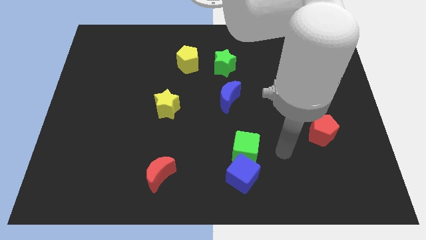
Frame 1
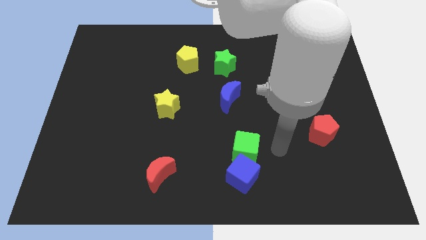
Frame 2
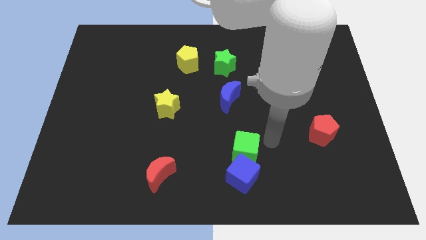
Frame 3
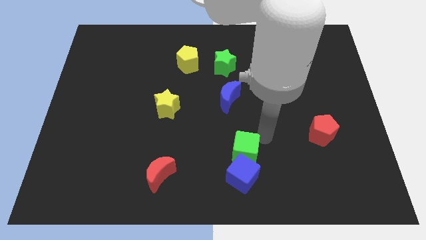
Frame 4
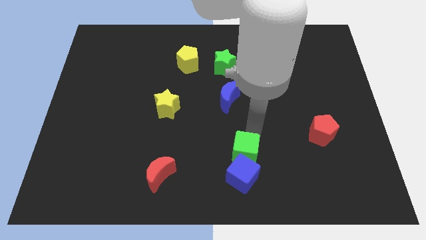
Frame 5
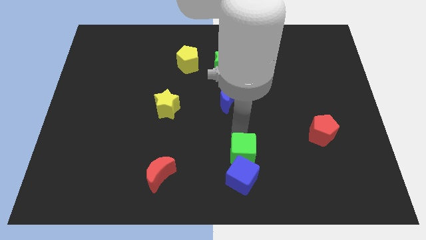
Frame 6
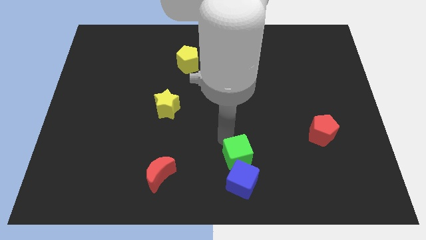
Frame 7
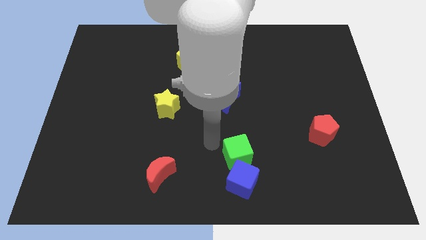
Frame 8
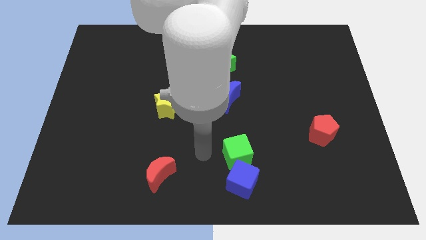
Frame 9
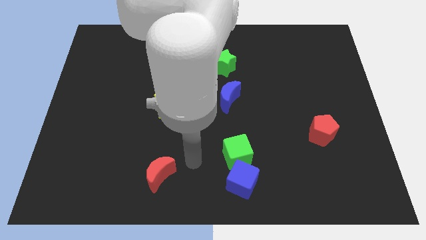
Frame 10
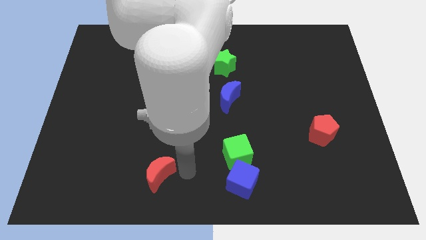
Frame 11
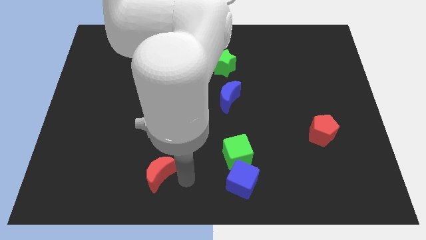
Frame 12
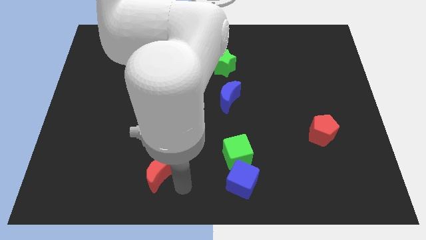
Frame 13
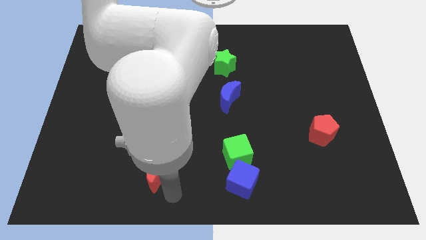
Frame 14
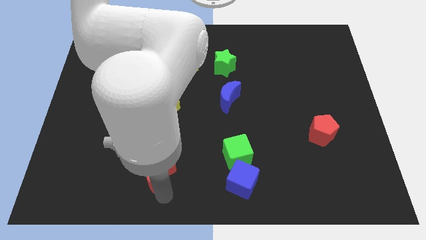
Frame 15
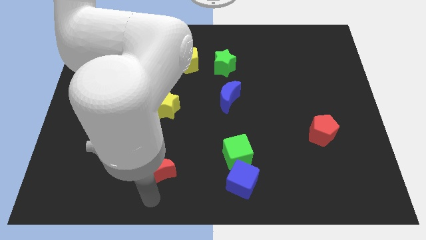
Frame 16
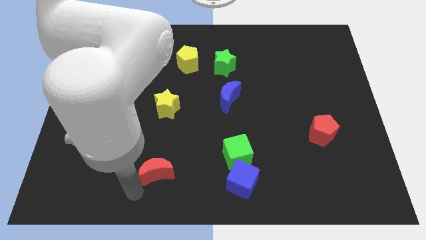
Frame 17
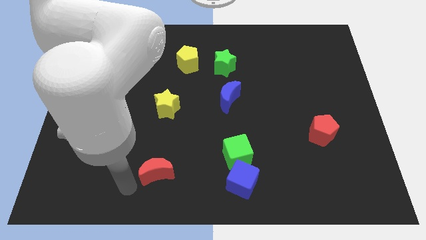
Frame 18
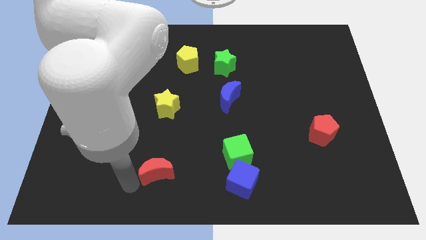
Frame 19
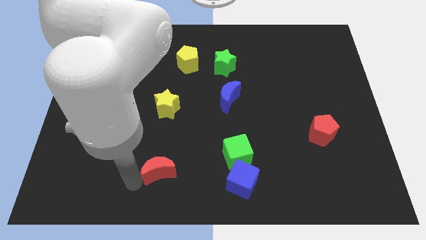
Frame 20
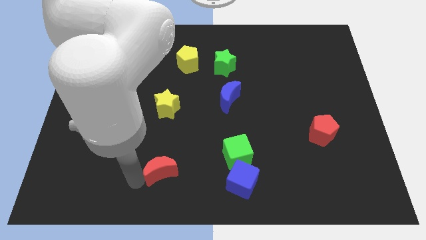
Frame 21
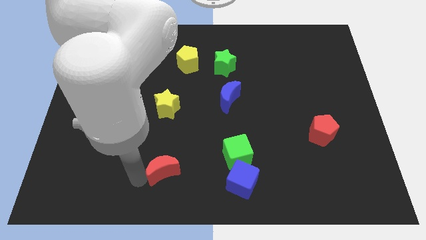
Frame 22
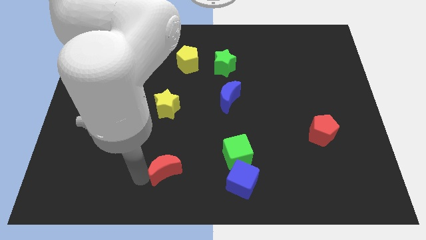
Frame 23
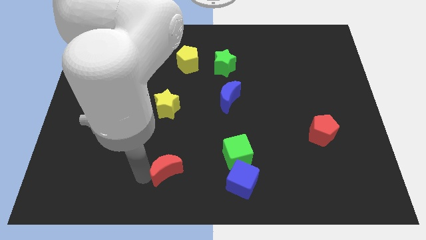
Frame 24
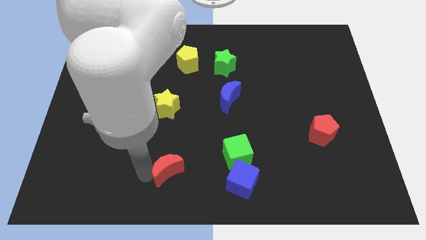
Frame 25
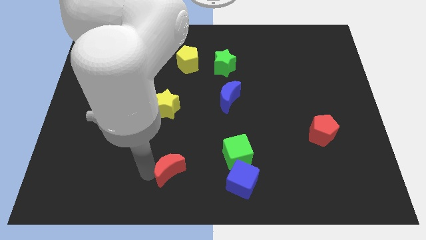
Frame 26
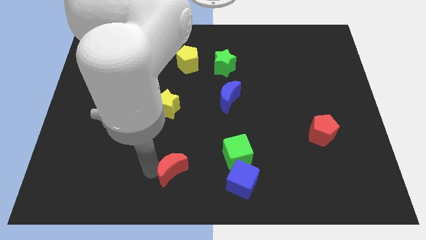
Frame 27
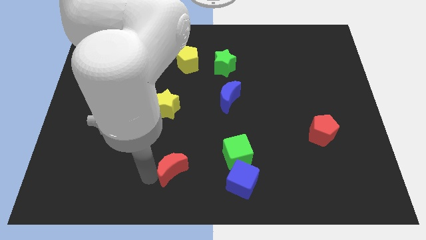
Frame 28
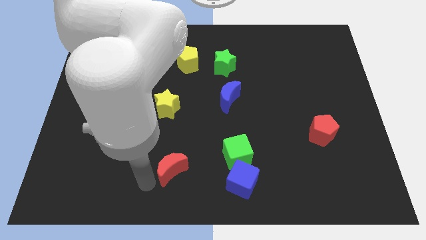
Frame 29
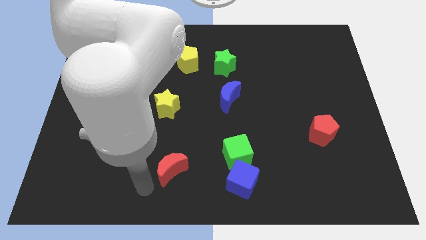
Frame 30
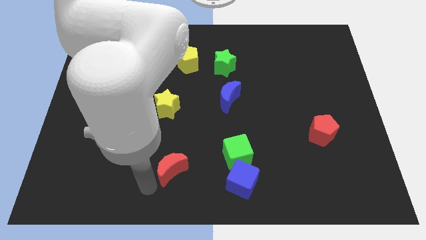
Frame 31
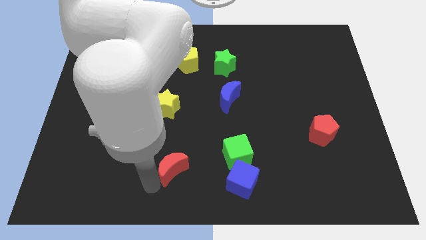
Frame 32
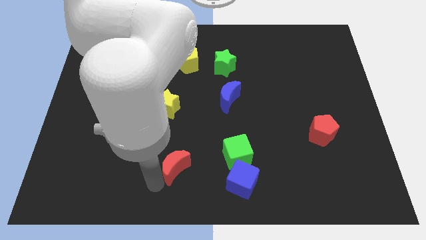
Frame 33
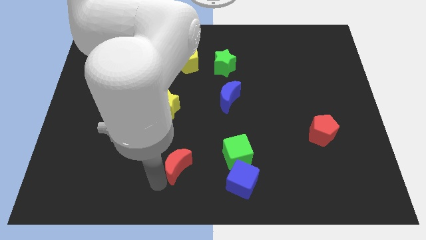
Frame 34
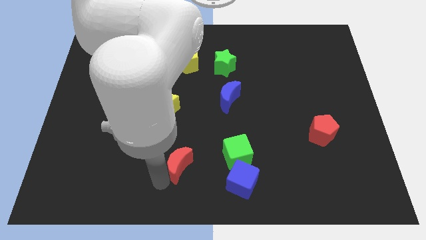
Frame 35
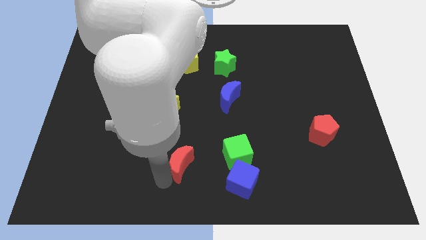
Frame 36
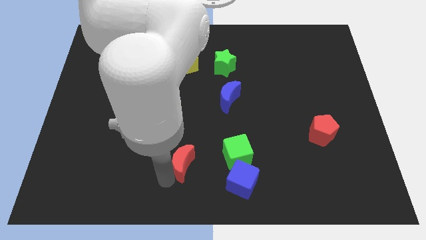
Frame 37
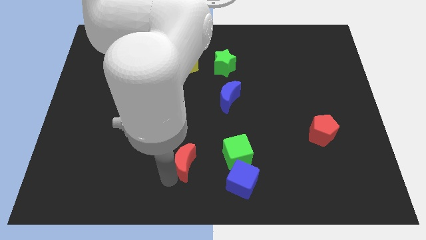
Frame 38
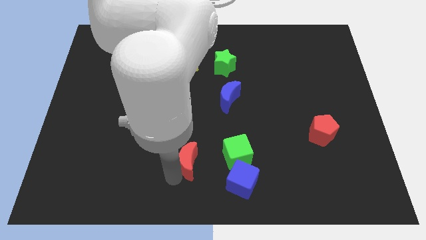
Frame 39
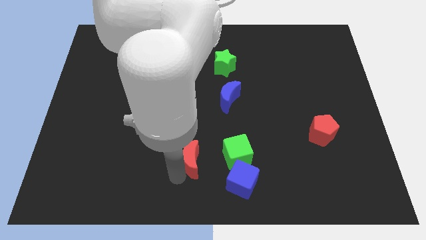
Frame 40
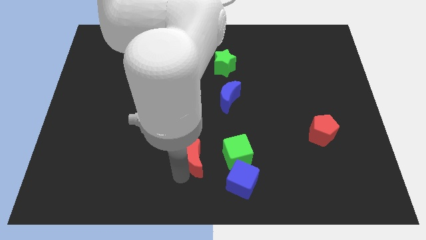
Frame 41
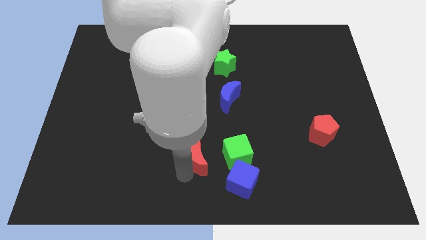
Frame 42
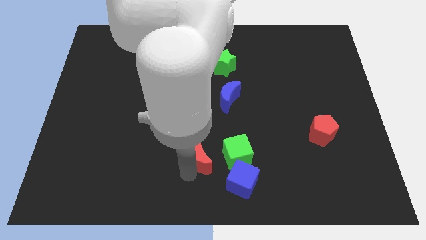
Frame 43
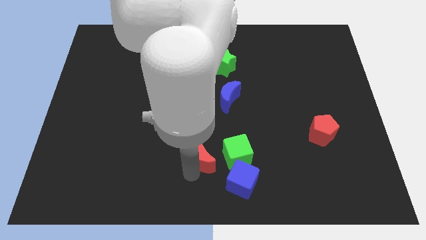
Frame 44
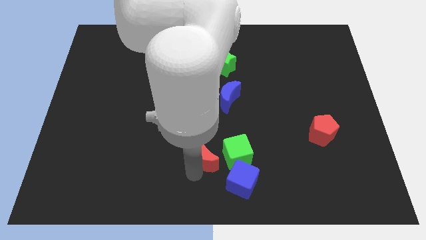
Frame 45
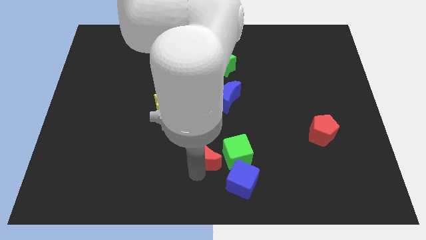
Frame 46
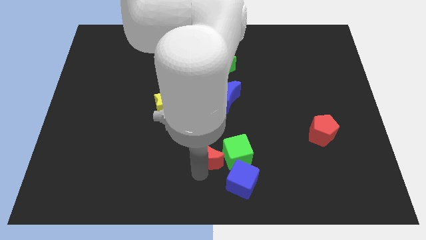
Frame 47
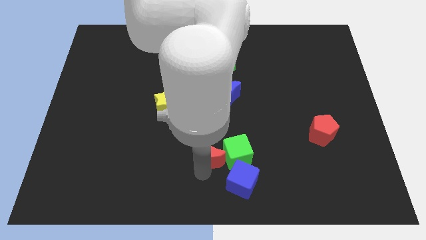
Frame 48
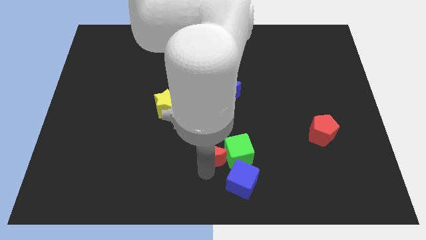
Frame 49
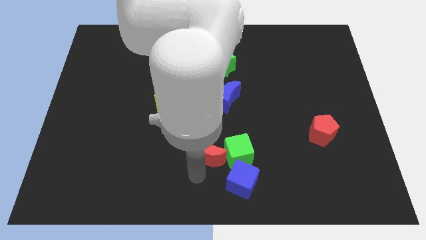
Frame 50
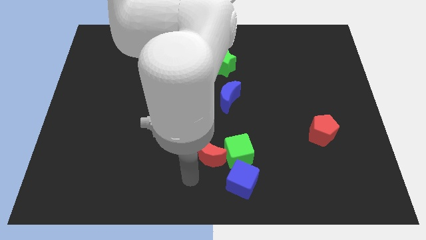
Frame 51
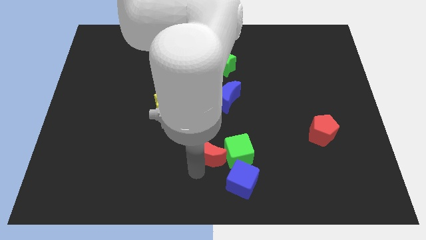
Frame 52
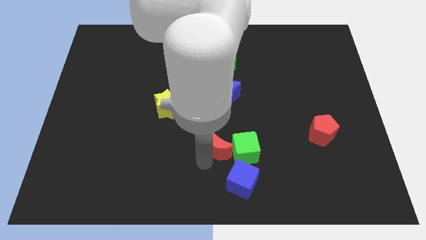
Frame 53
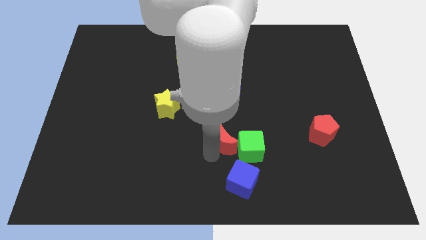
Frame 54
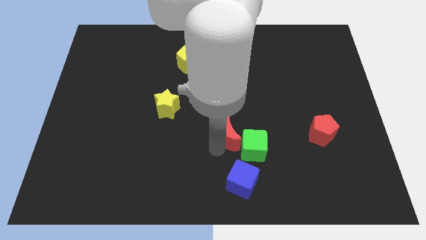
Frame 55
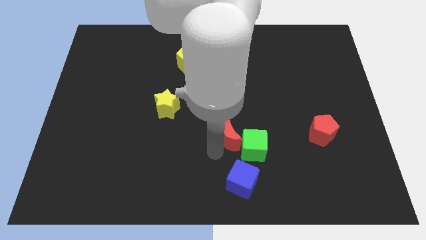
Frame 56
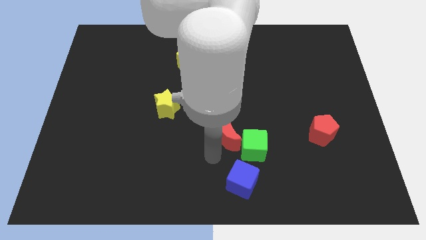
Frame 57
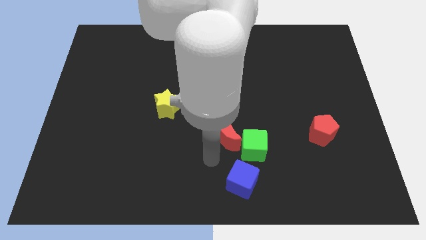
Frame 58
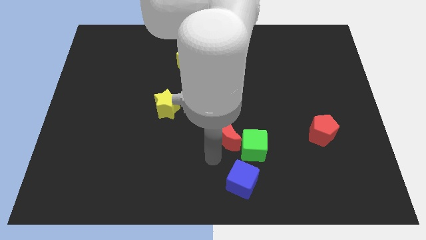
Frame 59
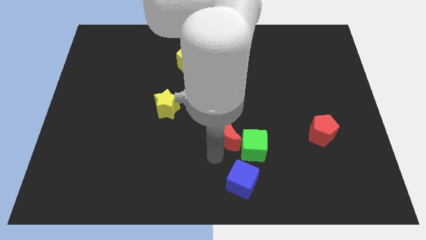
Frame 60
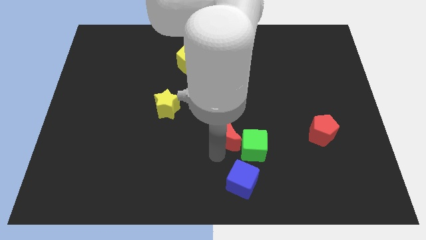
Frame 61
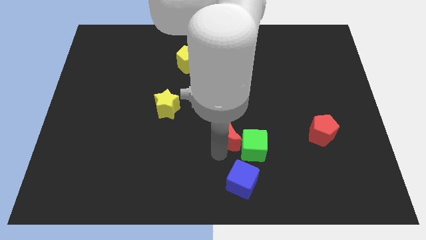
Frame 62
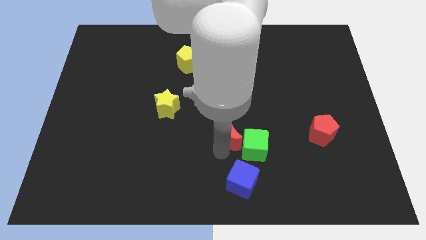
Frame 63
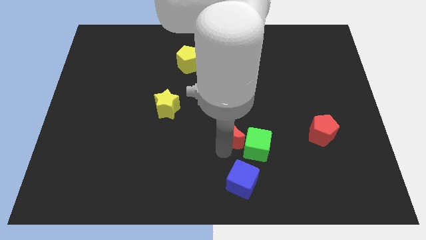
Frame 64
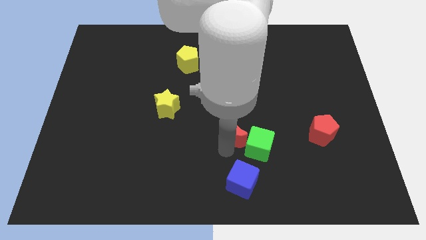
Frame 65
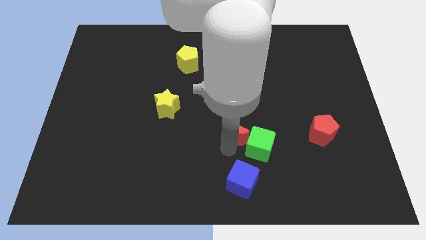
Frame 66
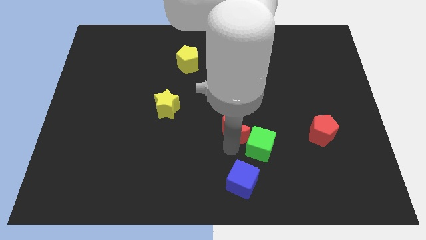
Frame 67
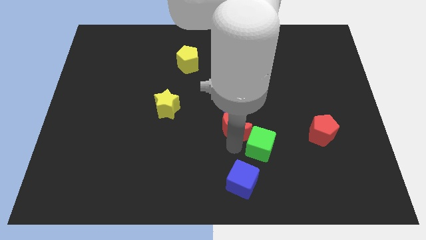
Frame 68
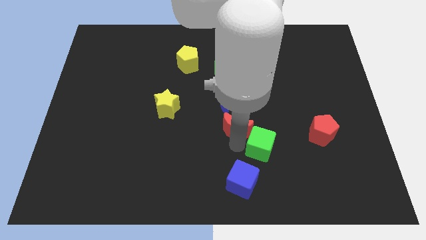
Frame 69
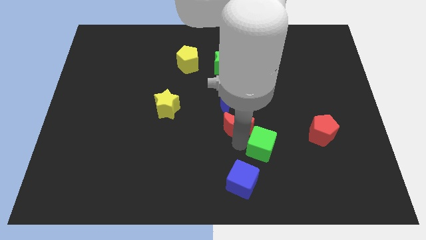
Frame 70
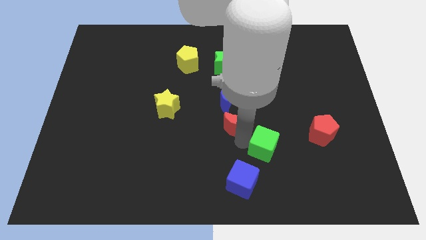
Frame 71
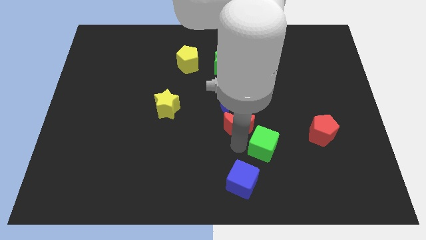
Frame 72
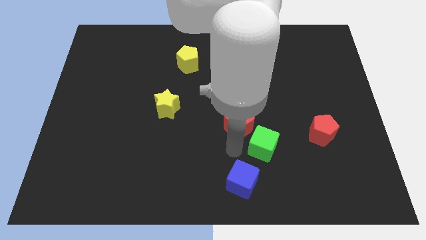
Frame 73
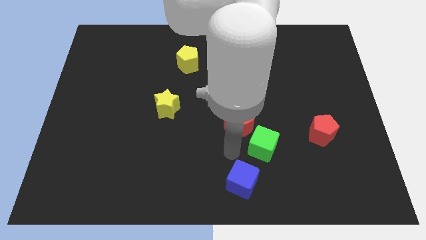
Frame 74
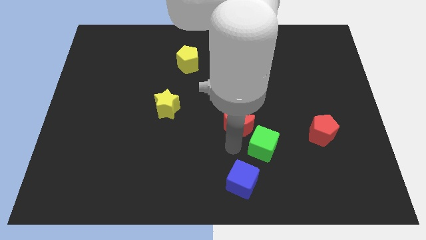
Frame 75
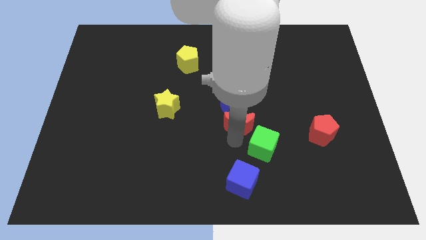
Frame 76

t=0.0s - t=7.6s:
move the red moon upwards and right

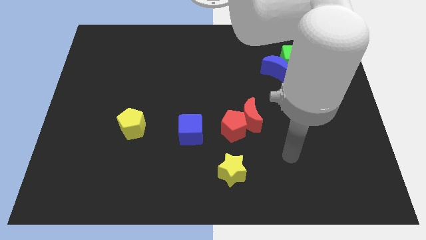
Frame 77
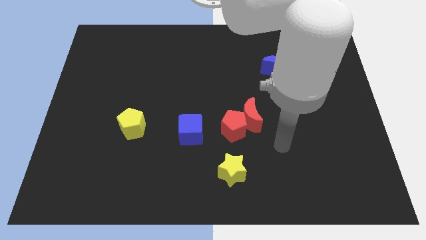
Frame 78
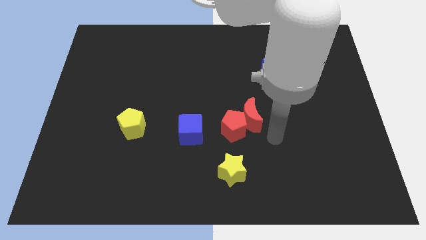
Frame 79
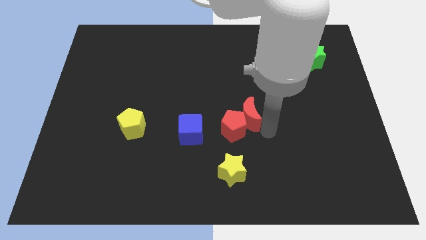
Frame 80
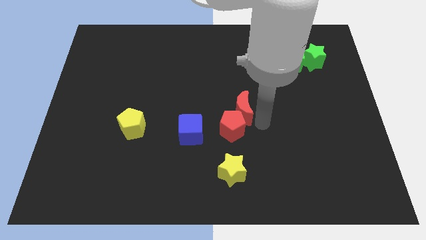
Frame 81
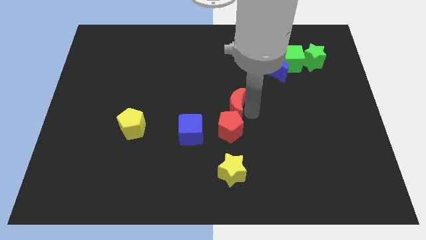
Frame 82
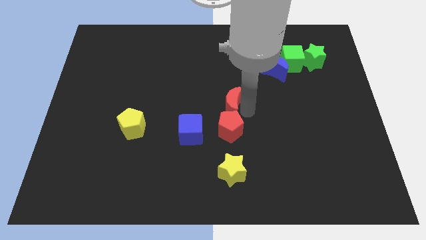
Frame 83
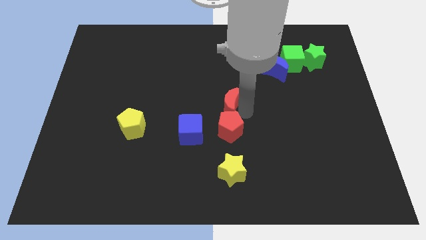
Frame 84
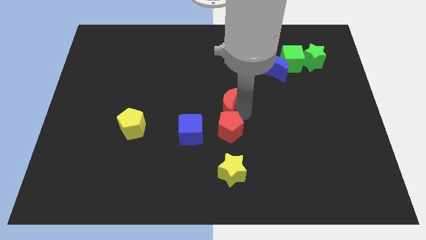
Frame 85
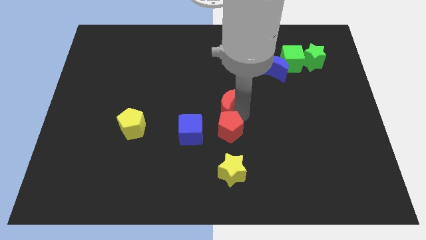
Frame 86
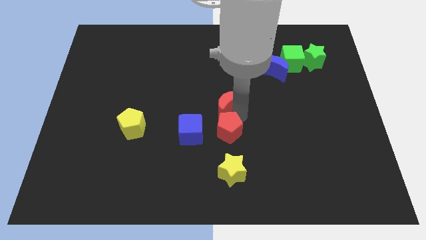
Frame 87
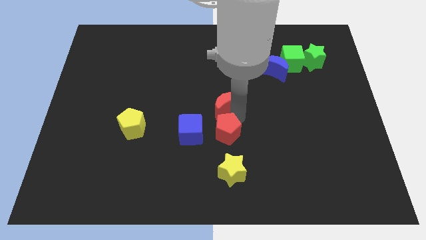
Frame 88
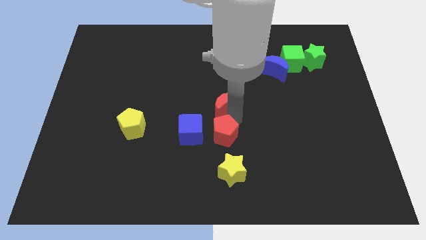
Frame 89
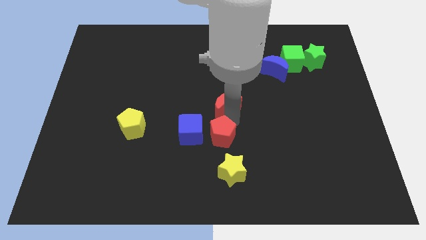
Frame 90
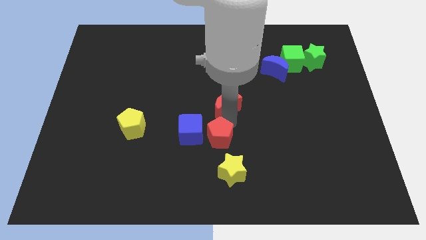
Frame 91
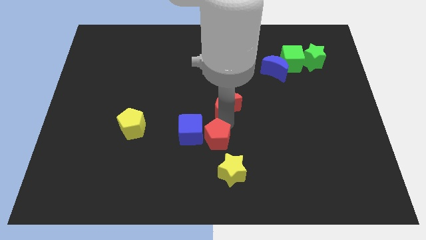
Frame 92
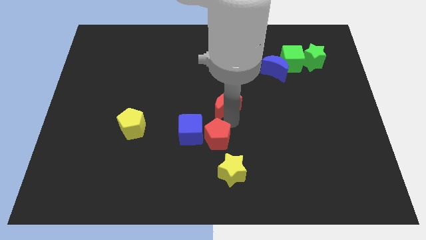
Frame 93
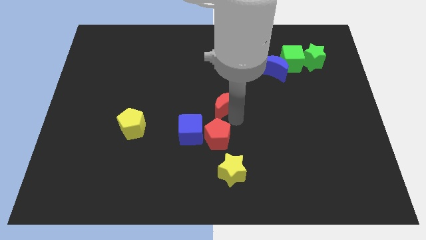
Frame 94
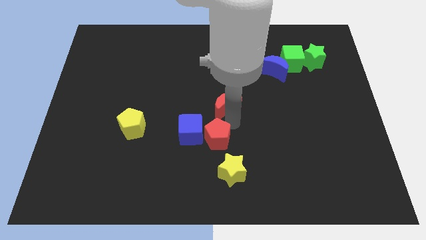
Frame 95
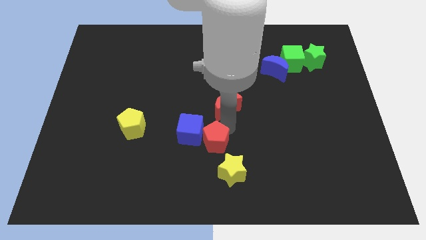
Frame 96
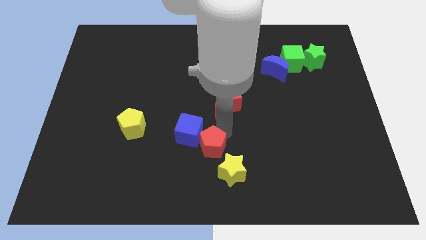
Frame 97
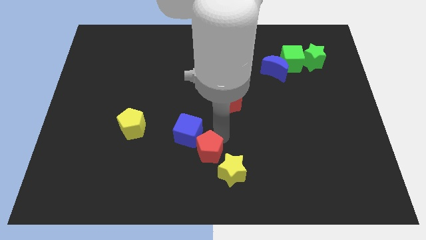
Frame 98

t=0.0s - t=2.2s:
slide the red pentagon a little down and to the left
